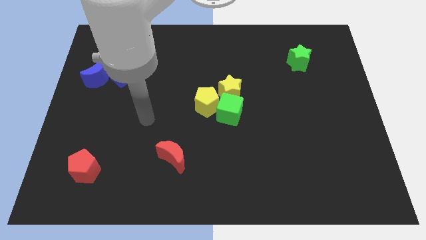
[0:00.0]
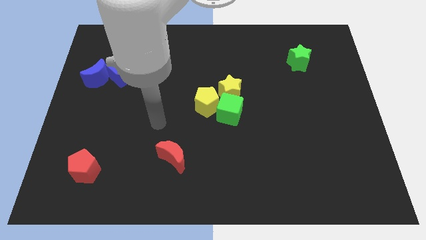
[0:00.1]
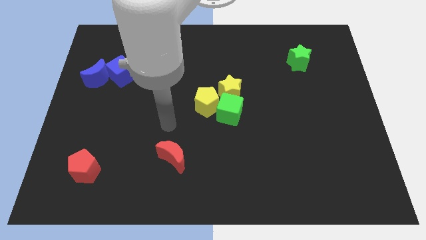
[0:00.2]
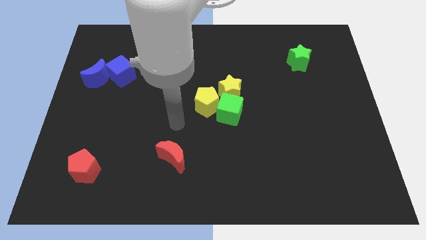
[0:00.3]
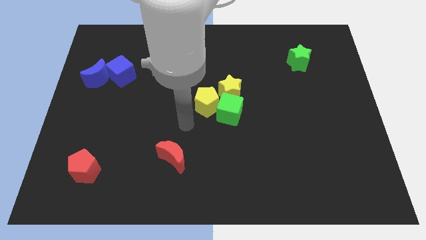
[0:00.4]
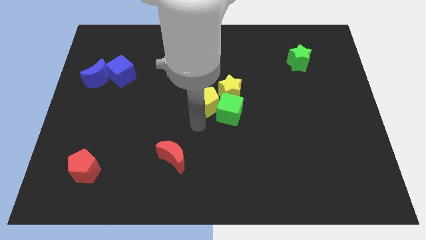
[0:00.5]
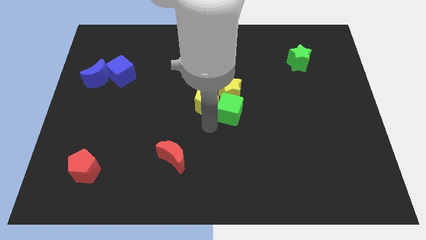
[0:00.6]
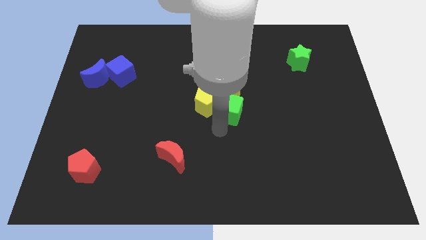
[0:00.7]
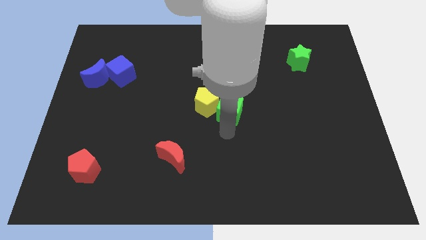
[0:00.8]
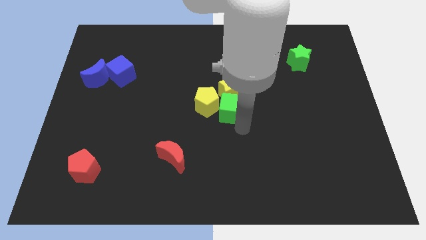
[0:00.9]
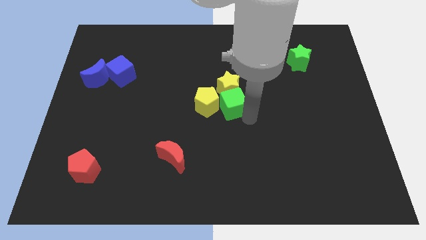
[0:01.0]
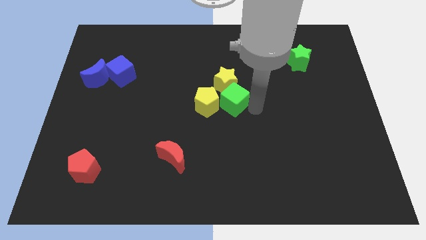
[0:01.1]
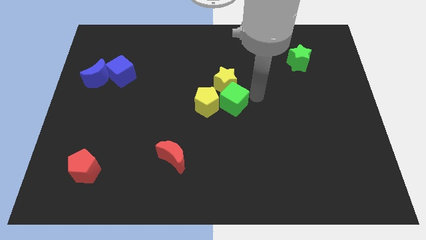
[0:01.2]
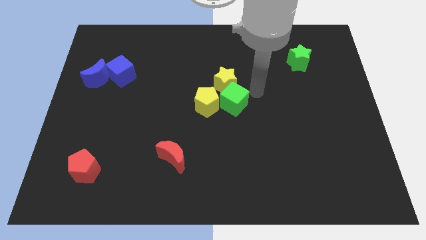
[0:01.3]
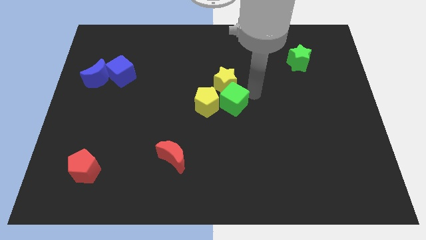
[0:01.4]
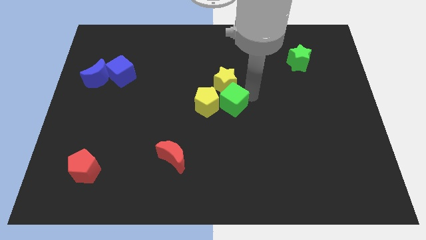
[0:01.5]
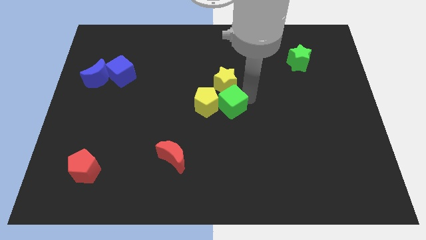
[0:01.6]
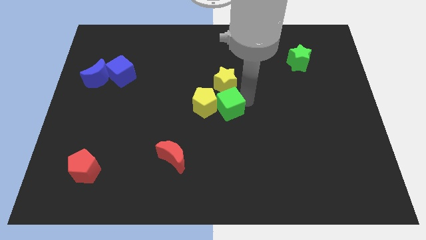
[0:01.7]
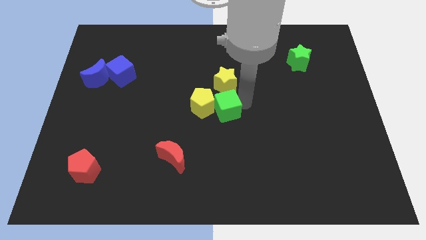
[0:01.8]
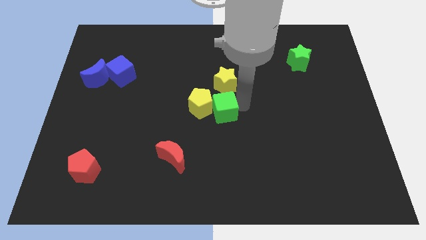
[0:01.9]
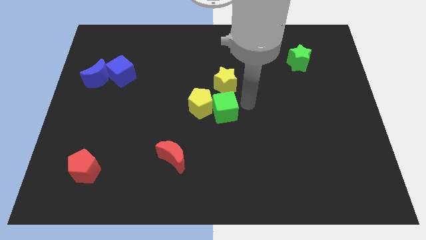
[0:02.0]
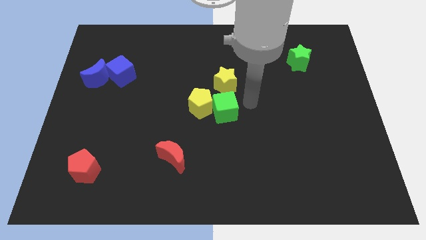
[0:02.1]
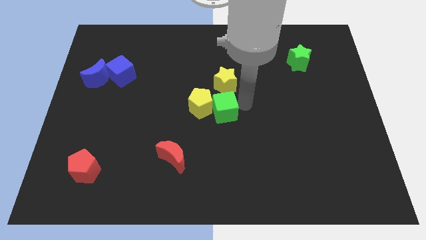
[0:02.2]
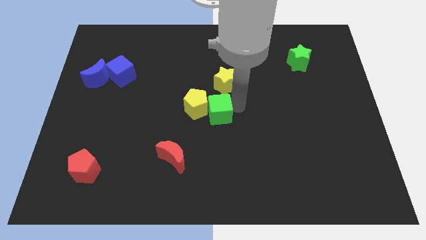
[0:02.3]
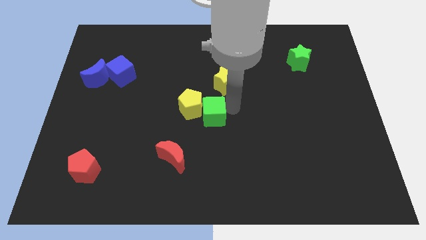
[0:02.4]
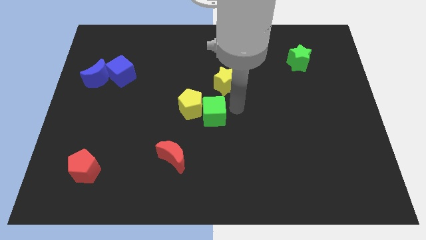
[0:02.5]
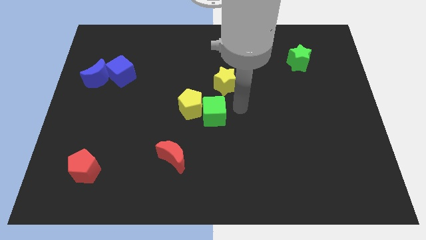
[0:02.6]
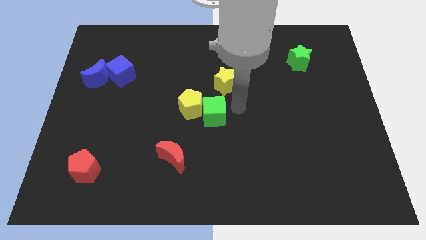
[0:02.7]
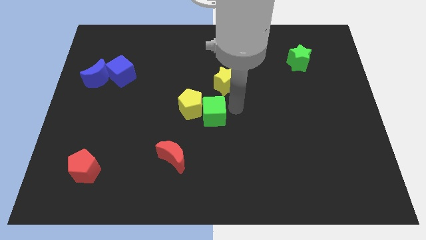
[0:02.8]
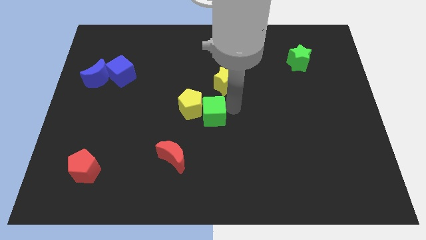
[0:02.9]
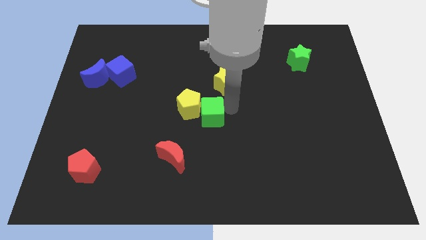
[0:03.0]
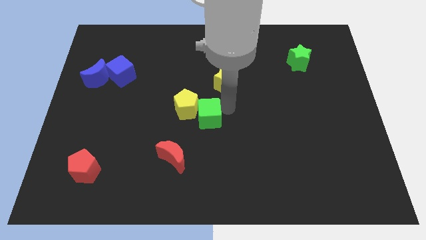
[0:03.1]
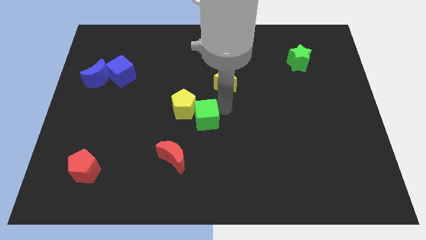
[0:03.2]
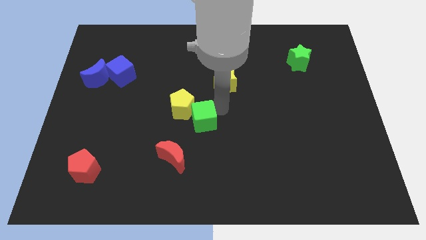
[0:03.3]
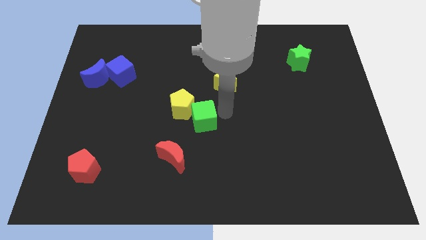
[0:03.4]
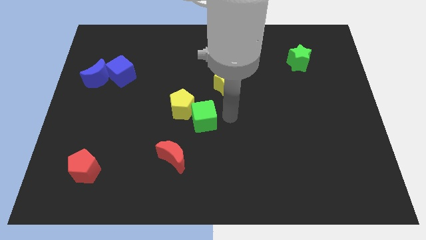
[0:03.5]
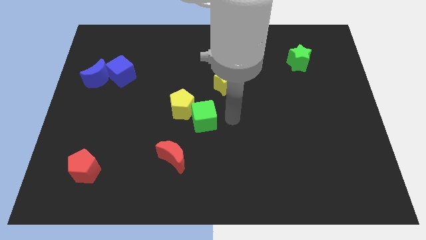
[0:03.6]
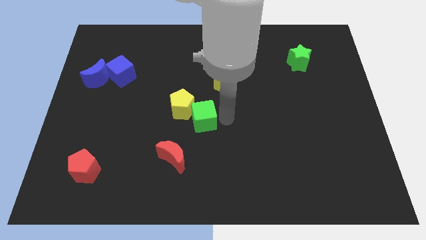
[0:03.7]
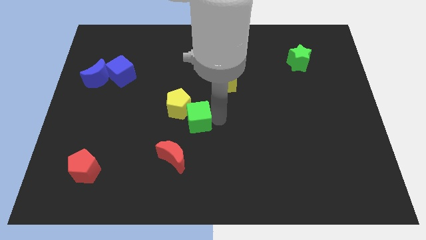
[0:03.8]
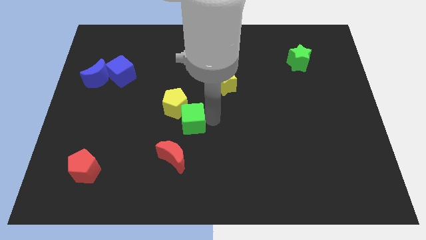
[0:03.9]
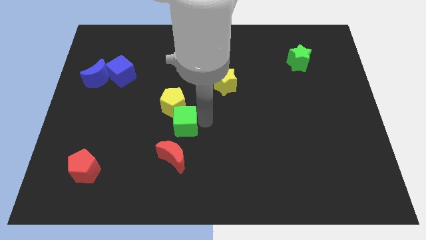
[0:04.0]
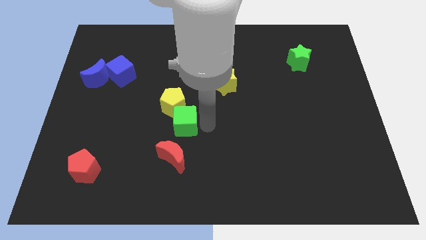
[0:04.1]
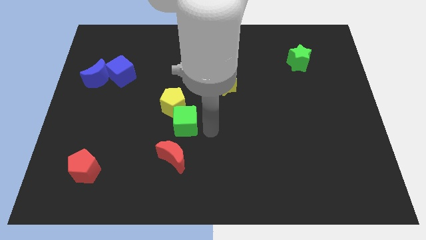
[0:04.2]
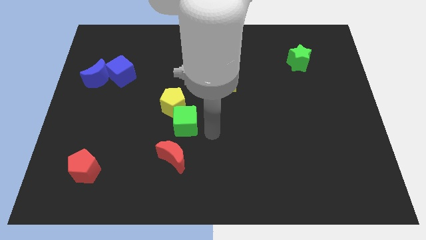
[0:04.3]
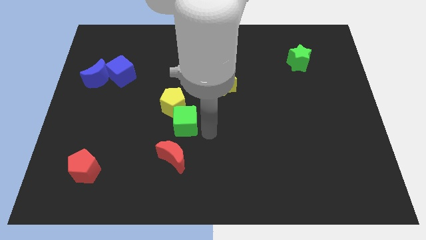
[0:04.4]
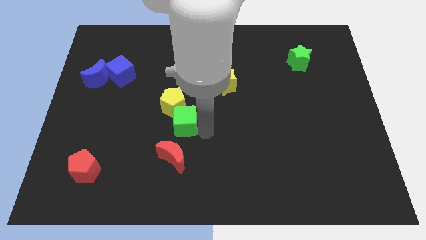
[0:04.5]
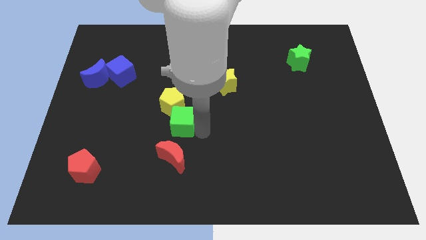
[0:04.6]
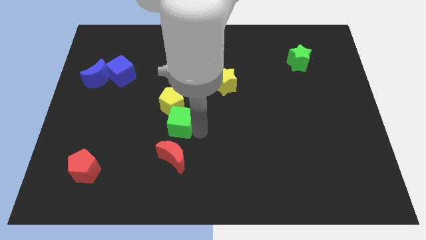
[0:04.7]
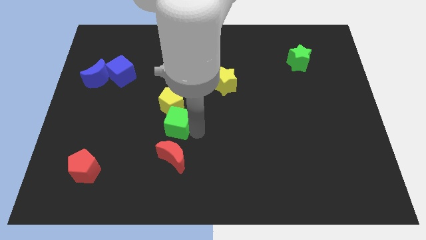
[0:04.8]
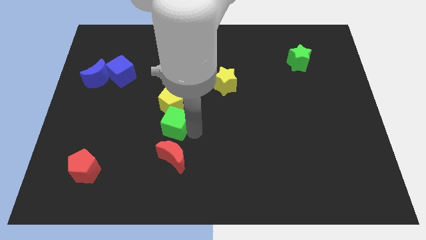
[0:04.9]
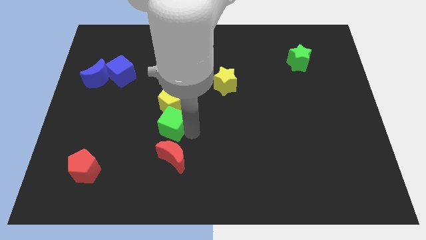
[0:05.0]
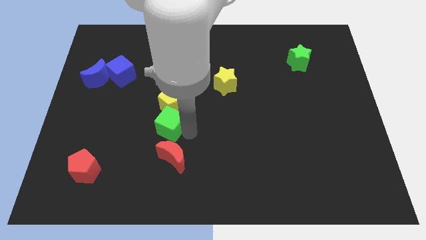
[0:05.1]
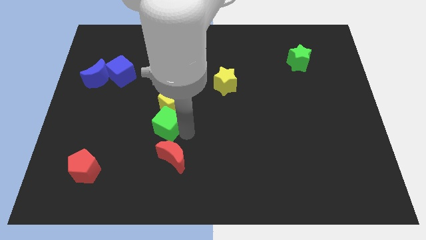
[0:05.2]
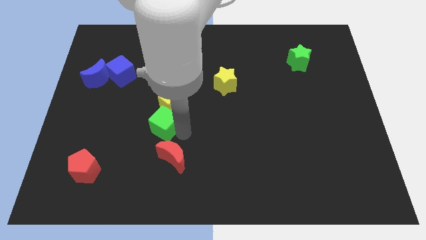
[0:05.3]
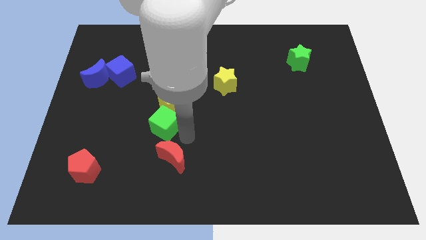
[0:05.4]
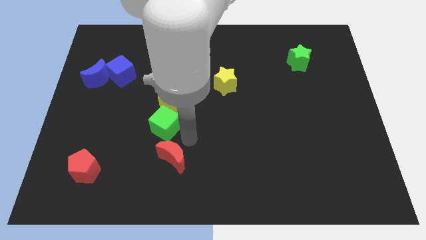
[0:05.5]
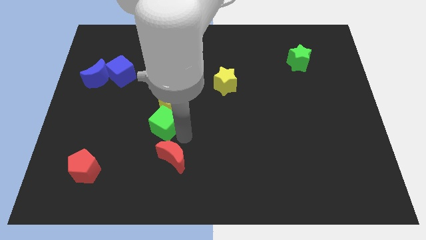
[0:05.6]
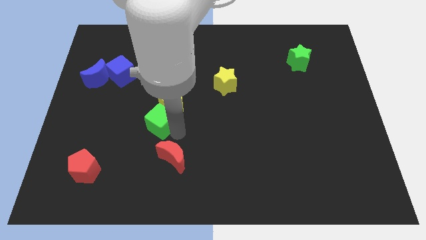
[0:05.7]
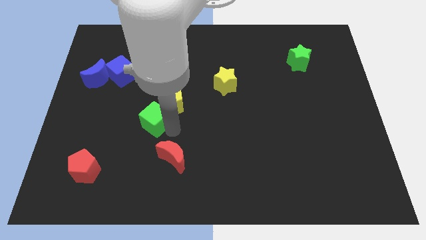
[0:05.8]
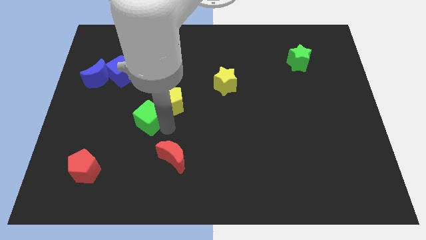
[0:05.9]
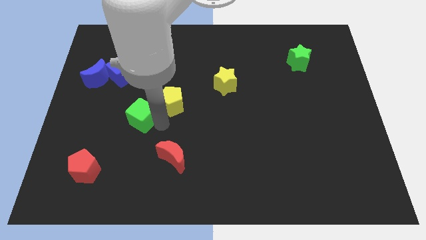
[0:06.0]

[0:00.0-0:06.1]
push the green cube left

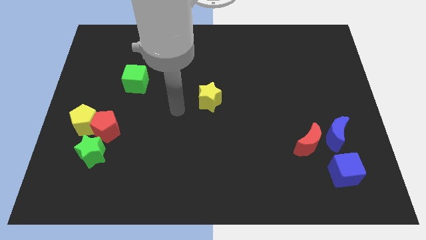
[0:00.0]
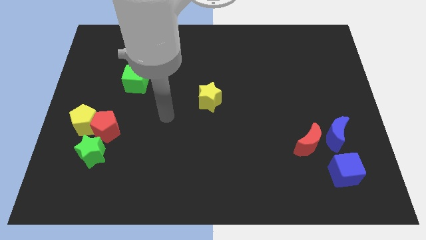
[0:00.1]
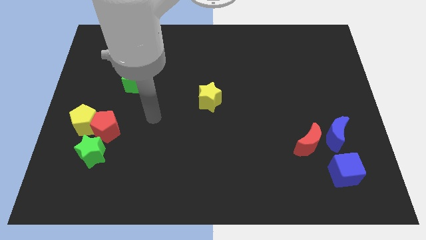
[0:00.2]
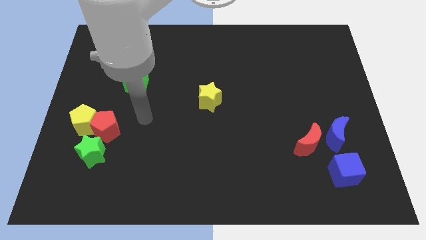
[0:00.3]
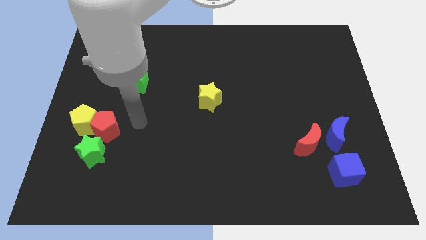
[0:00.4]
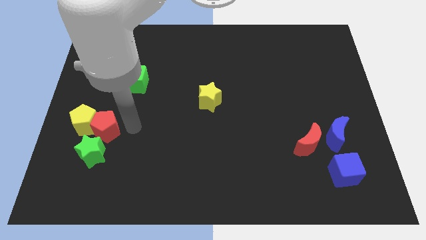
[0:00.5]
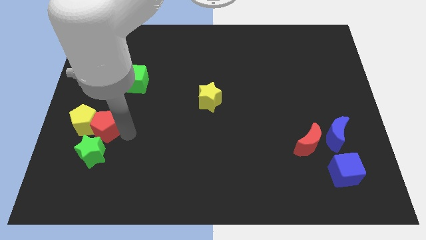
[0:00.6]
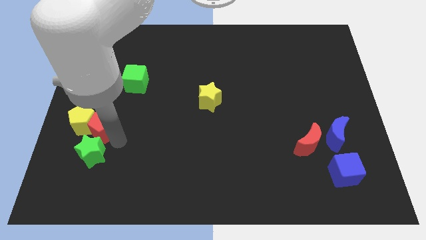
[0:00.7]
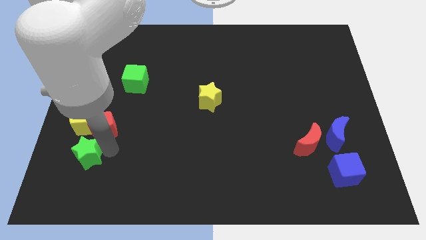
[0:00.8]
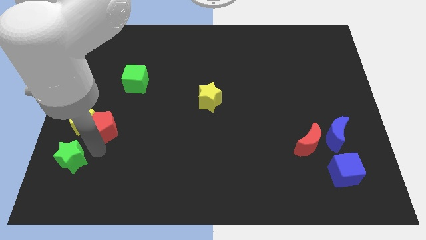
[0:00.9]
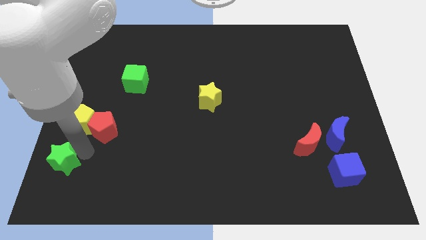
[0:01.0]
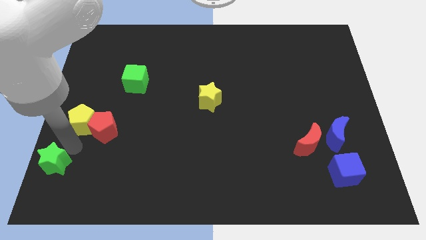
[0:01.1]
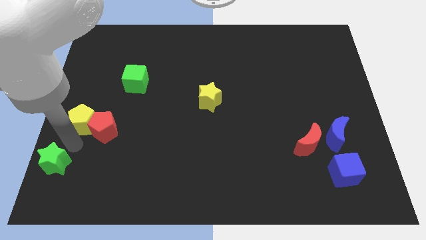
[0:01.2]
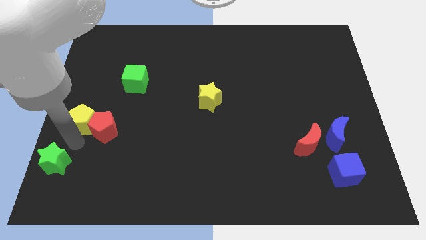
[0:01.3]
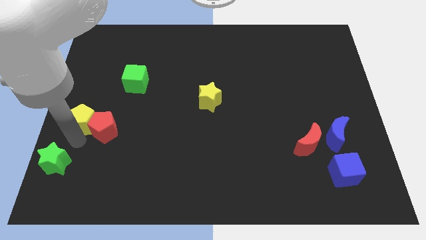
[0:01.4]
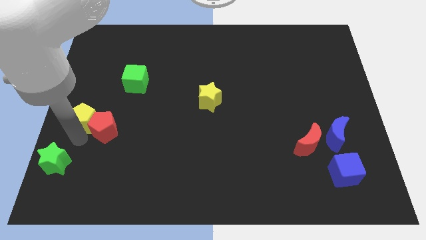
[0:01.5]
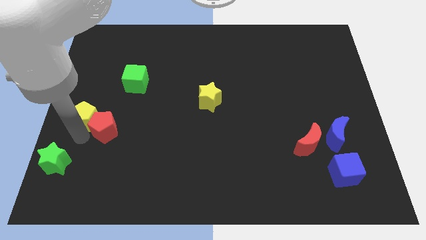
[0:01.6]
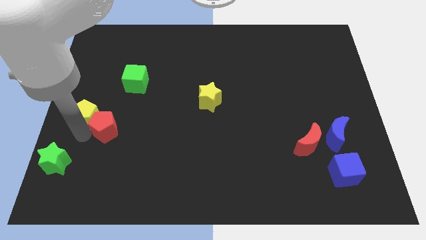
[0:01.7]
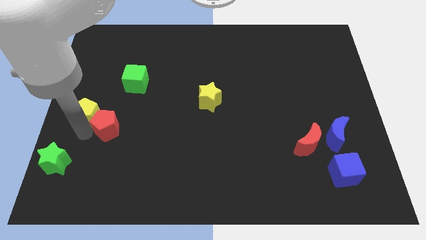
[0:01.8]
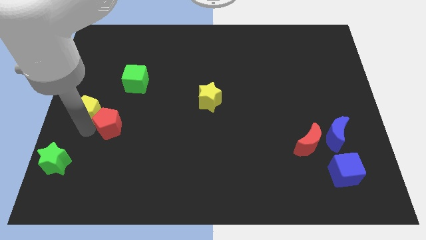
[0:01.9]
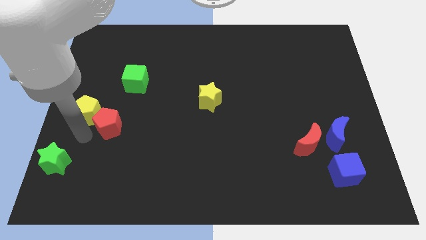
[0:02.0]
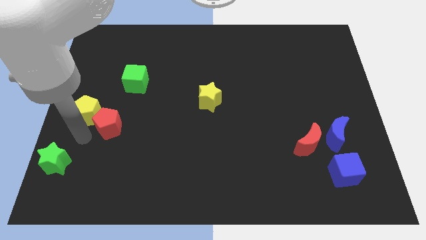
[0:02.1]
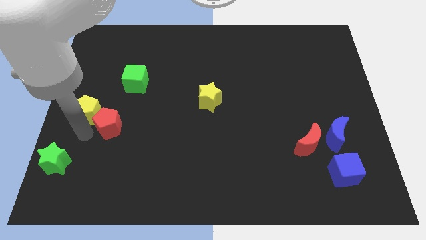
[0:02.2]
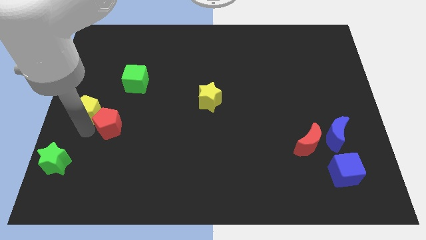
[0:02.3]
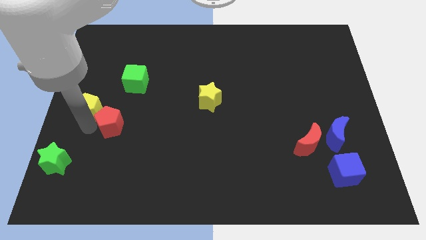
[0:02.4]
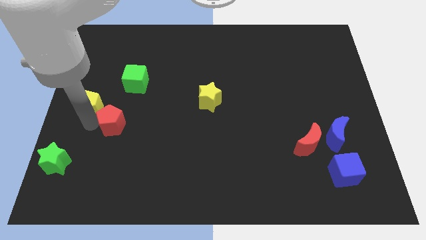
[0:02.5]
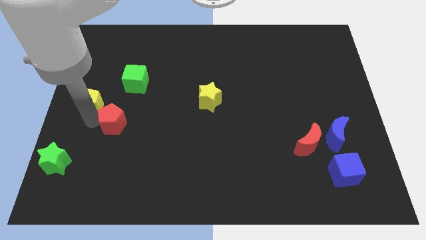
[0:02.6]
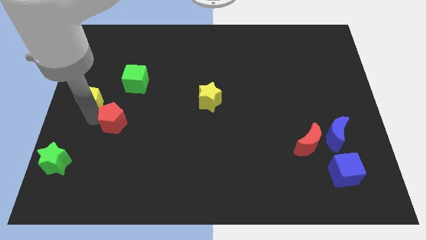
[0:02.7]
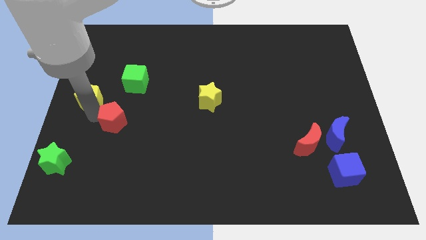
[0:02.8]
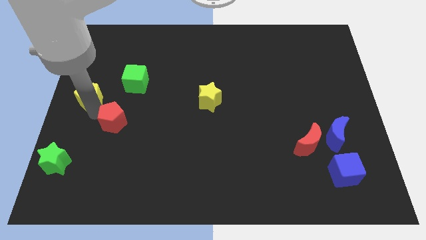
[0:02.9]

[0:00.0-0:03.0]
push the yellow pentagon up a bit
